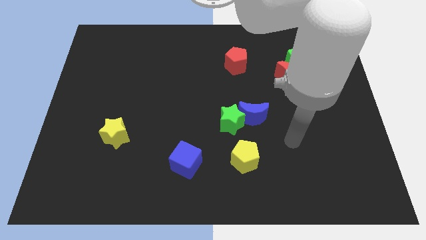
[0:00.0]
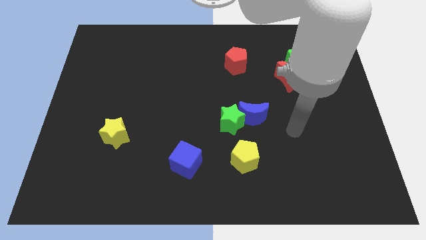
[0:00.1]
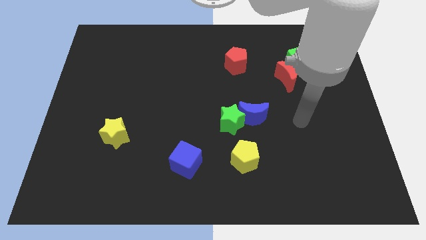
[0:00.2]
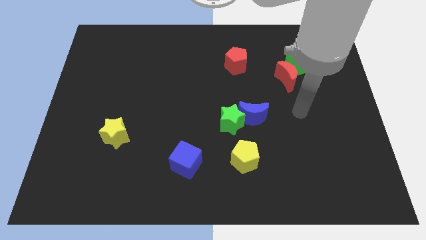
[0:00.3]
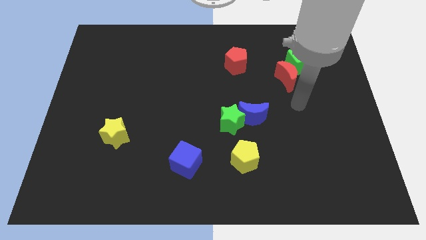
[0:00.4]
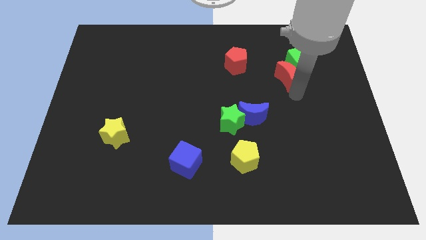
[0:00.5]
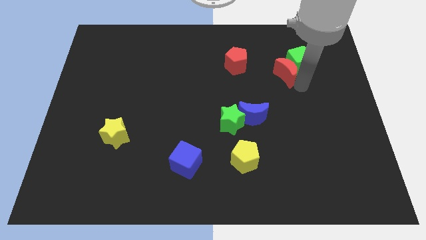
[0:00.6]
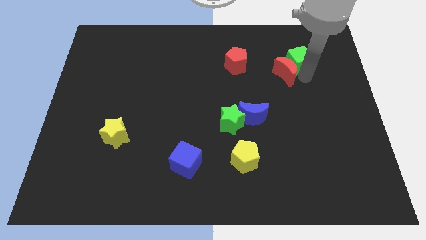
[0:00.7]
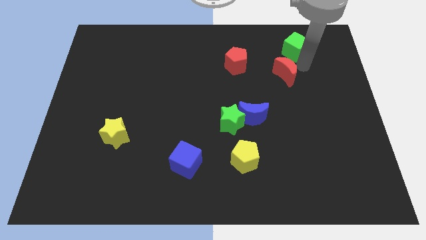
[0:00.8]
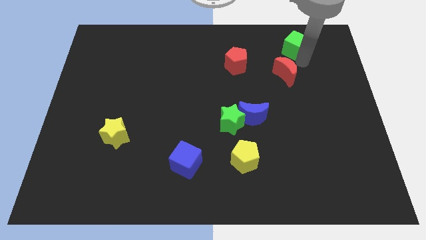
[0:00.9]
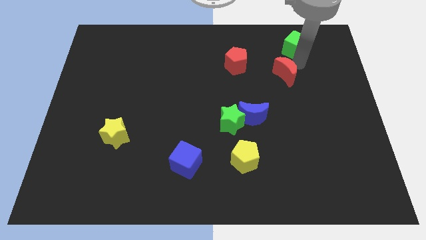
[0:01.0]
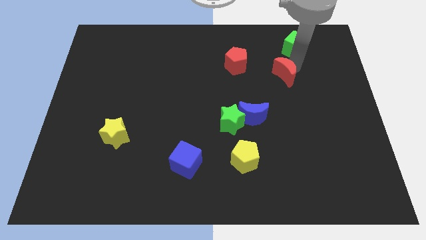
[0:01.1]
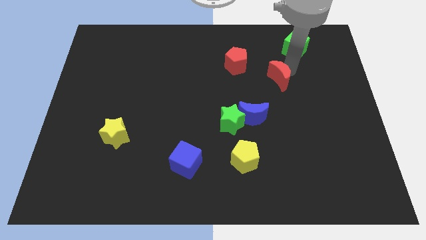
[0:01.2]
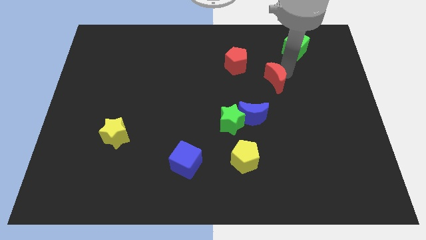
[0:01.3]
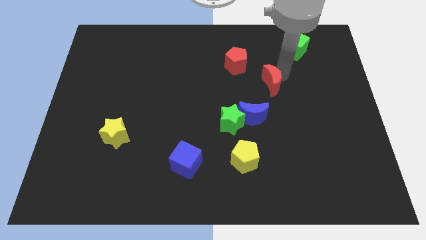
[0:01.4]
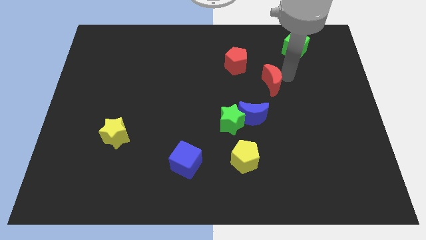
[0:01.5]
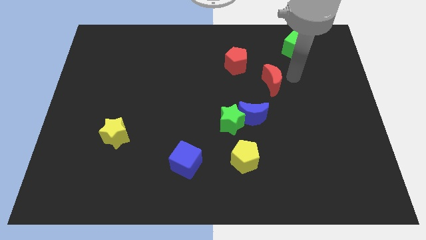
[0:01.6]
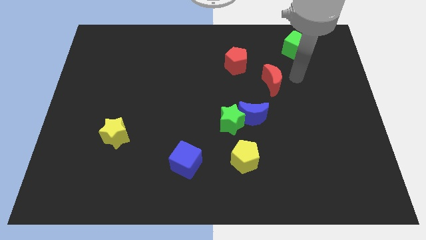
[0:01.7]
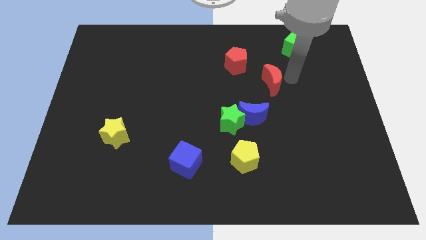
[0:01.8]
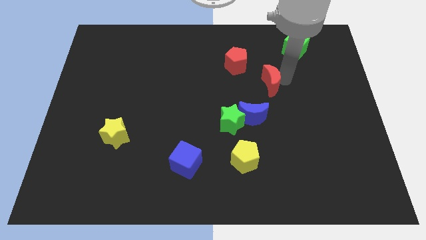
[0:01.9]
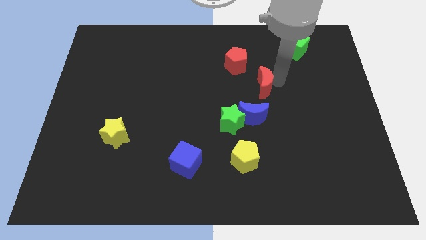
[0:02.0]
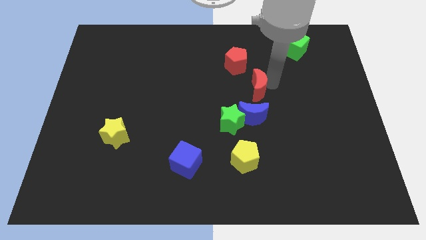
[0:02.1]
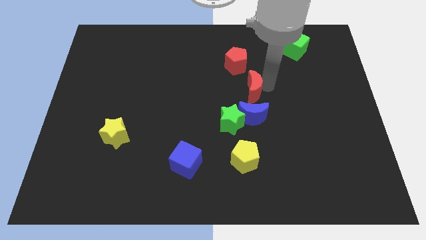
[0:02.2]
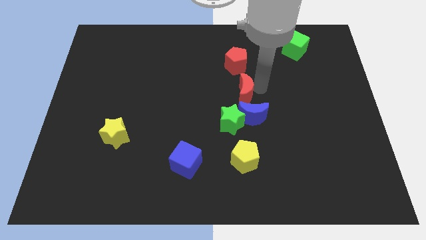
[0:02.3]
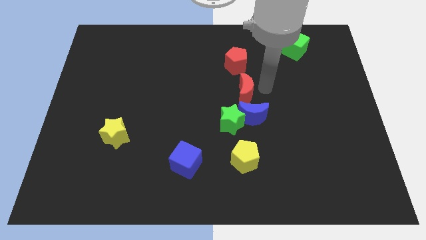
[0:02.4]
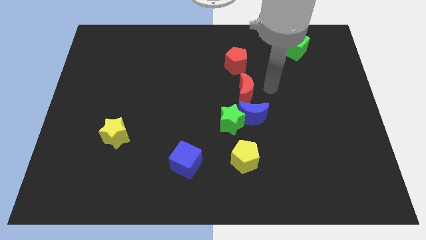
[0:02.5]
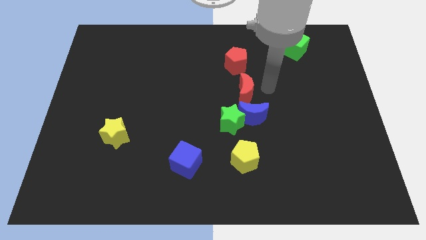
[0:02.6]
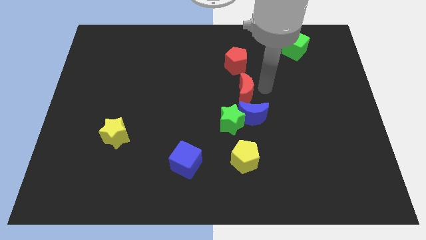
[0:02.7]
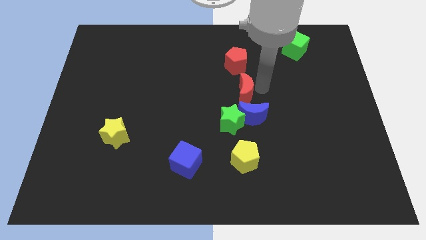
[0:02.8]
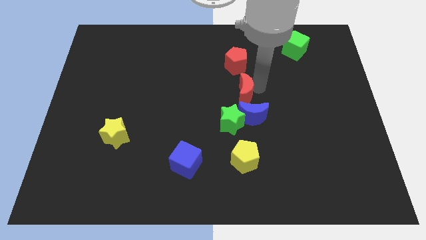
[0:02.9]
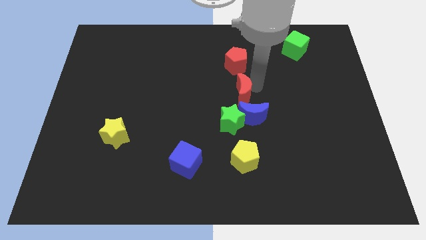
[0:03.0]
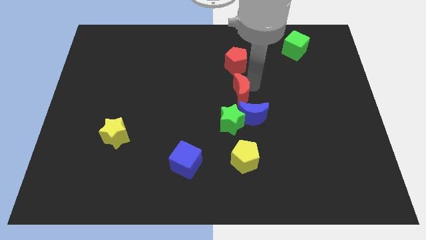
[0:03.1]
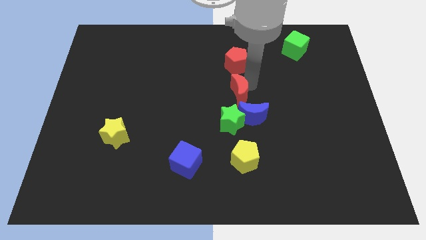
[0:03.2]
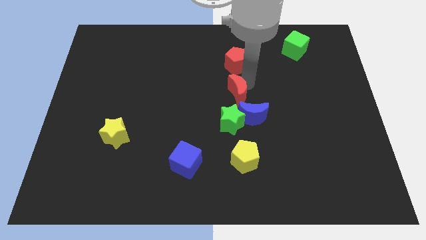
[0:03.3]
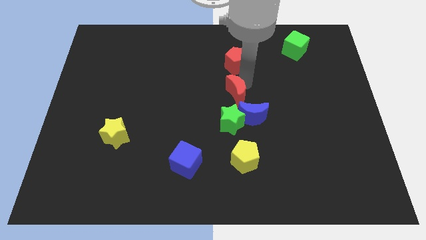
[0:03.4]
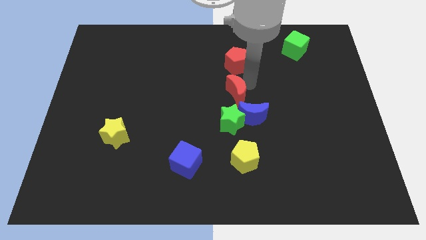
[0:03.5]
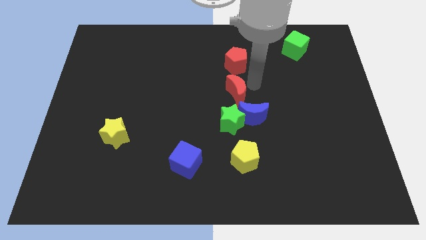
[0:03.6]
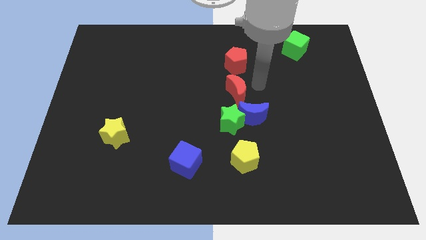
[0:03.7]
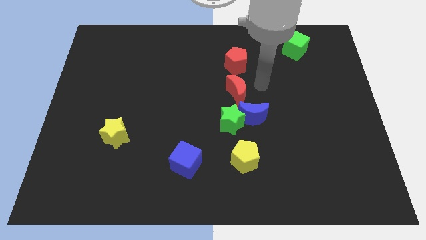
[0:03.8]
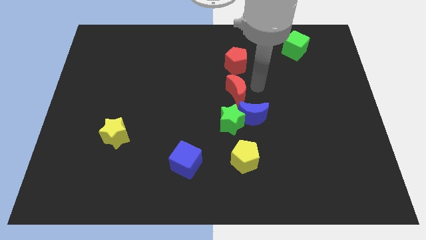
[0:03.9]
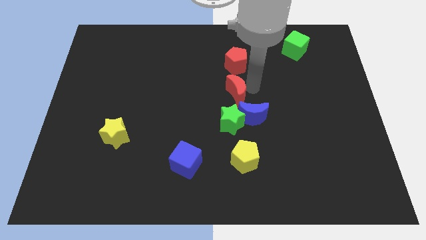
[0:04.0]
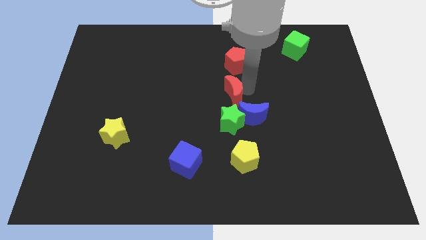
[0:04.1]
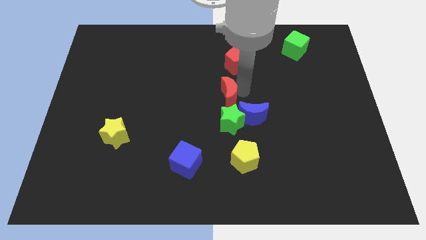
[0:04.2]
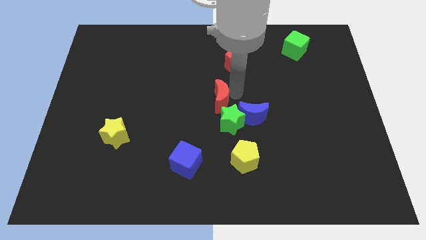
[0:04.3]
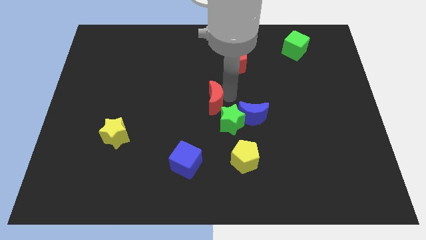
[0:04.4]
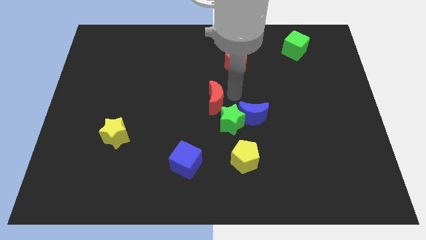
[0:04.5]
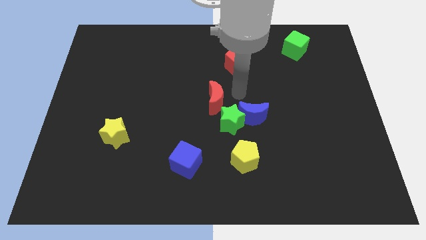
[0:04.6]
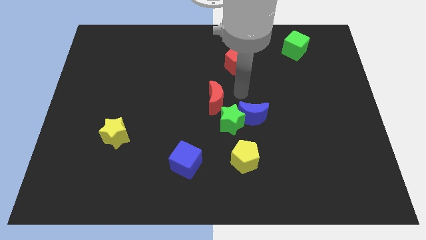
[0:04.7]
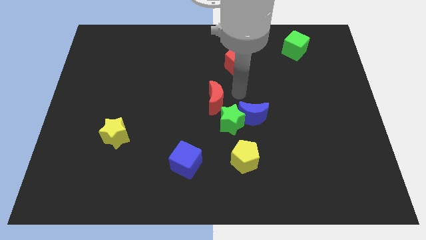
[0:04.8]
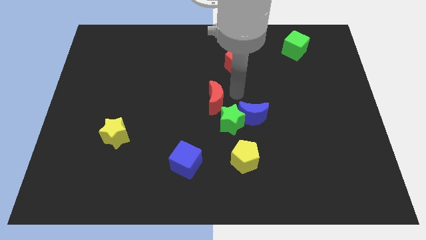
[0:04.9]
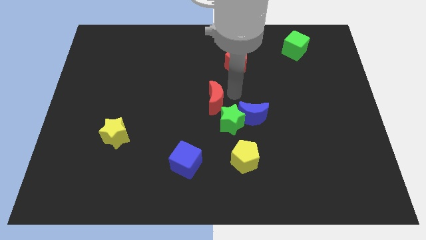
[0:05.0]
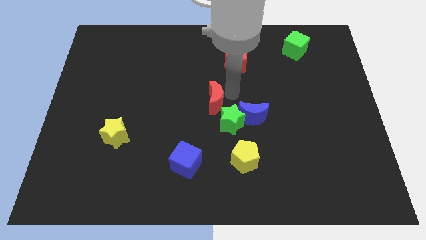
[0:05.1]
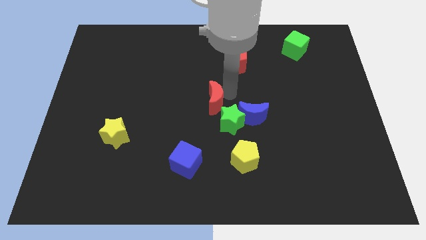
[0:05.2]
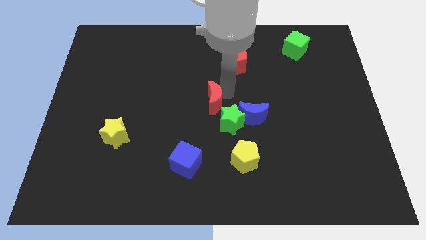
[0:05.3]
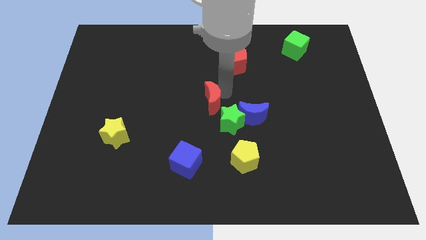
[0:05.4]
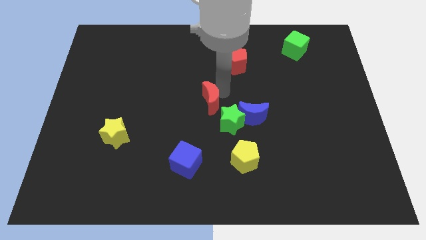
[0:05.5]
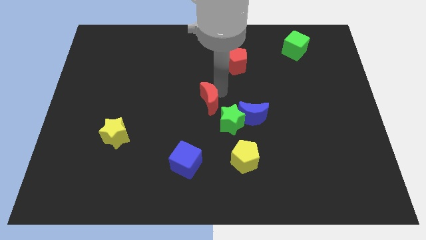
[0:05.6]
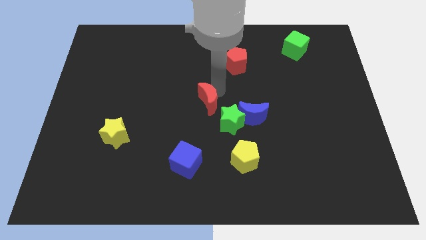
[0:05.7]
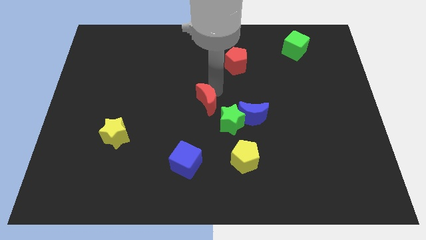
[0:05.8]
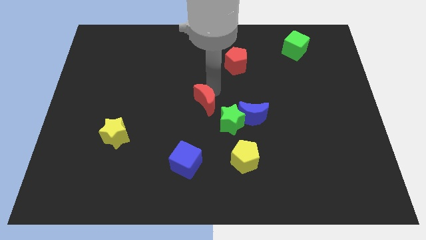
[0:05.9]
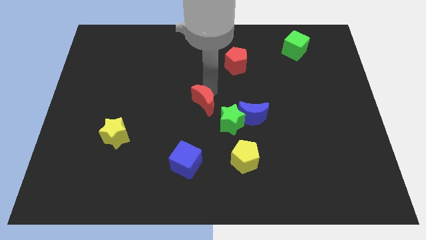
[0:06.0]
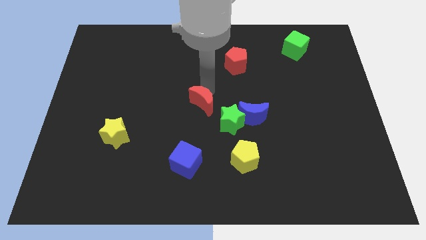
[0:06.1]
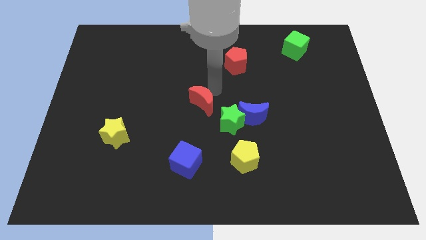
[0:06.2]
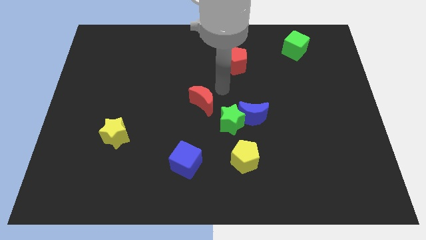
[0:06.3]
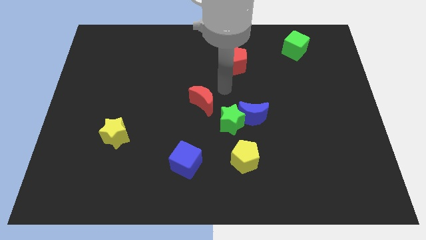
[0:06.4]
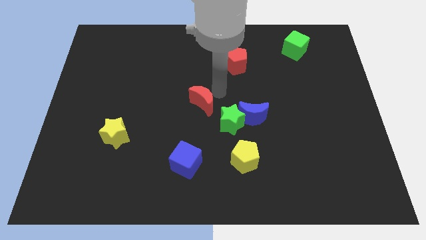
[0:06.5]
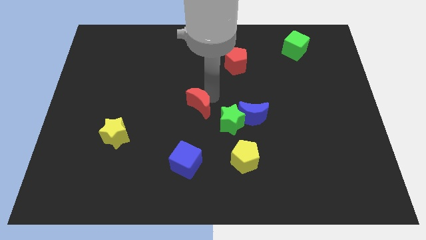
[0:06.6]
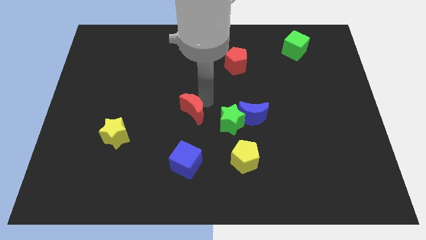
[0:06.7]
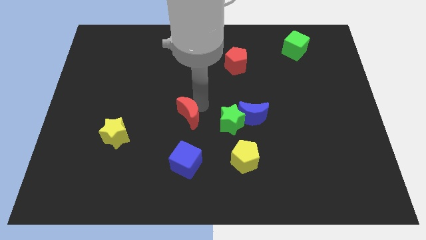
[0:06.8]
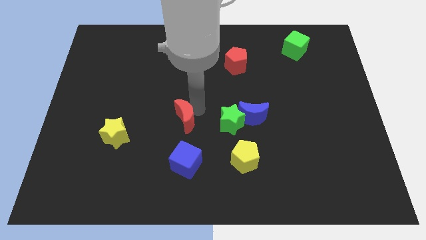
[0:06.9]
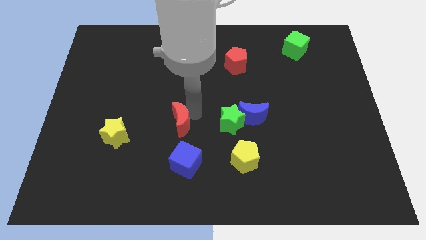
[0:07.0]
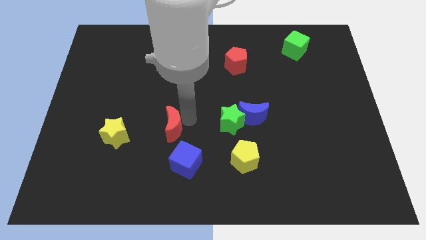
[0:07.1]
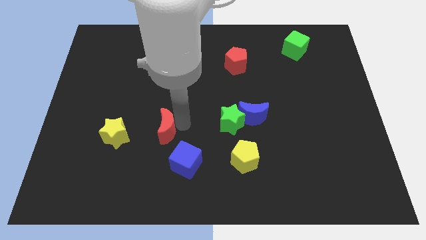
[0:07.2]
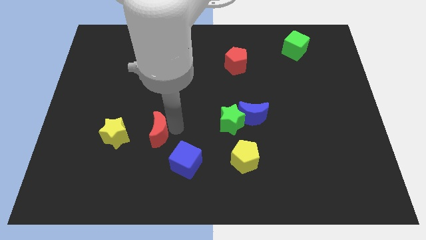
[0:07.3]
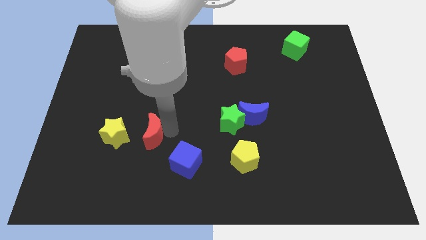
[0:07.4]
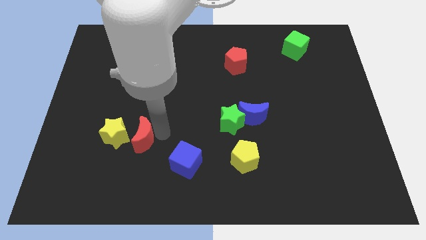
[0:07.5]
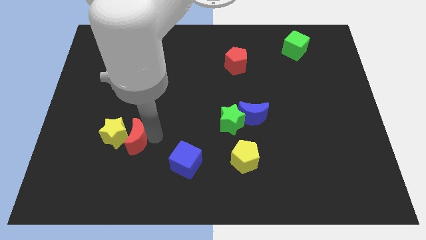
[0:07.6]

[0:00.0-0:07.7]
move the red moon to the yellow star
